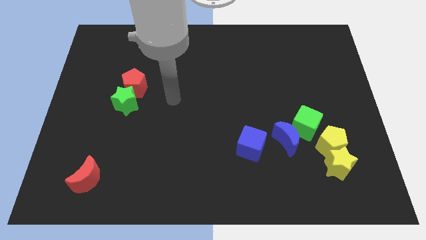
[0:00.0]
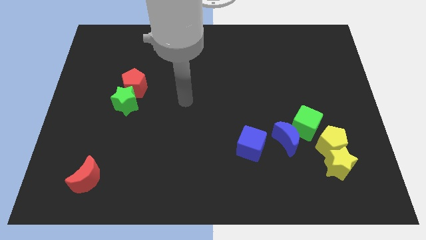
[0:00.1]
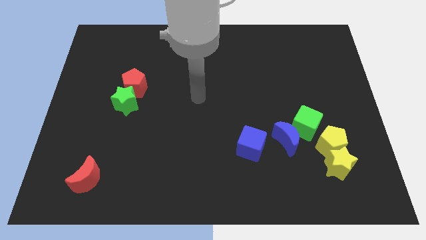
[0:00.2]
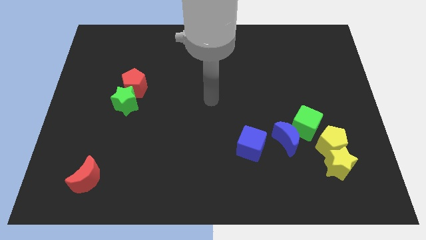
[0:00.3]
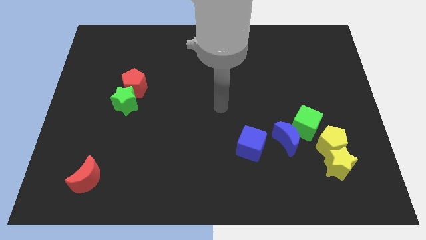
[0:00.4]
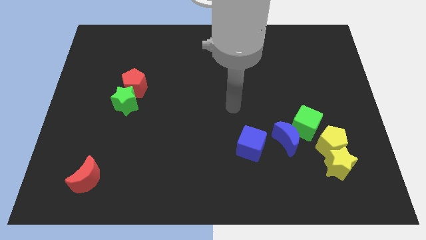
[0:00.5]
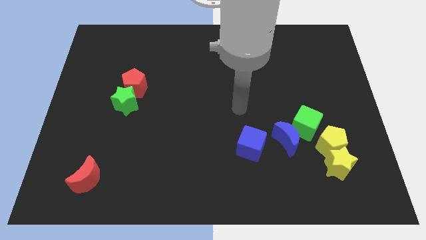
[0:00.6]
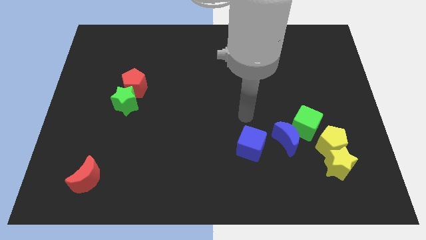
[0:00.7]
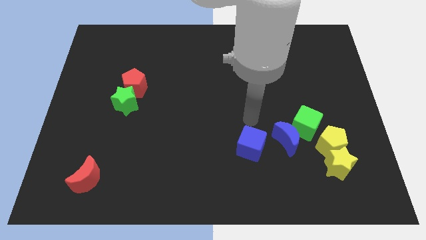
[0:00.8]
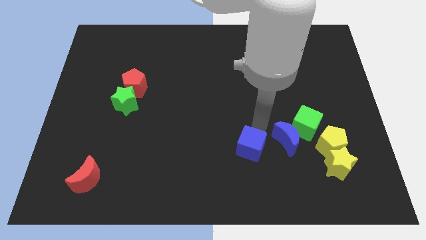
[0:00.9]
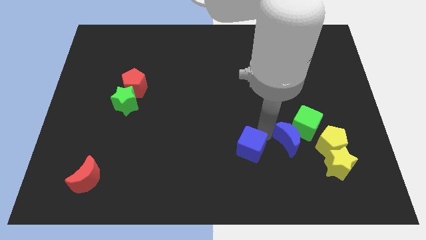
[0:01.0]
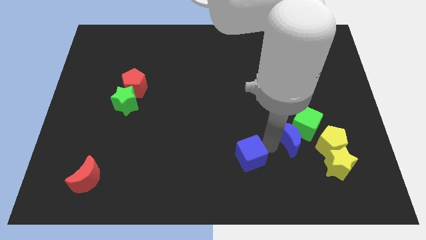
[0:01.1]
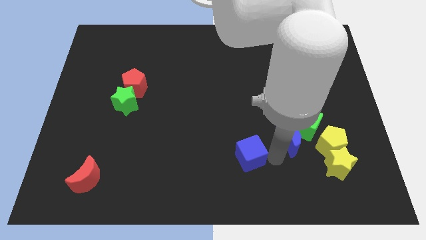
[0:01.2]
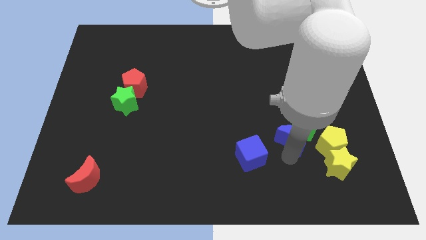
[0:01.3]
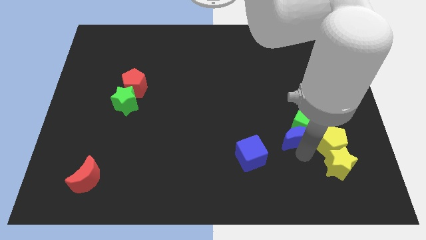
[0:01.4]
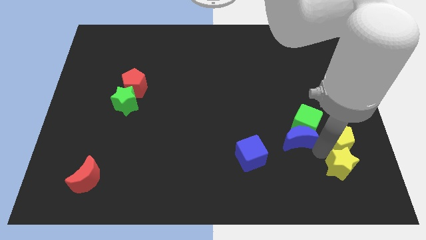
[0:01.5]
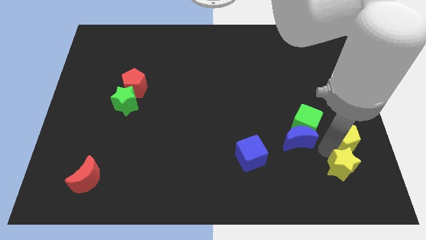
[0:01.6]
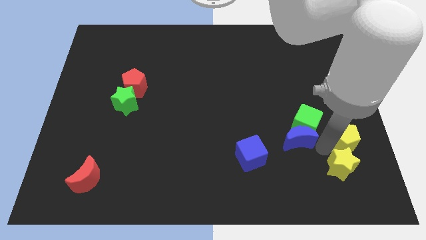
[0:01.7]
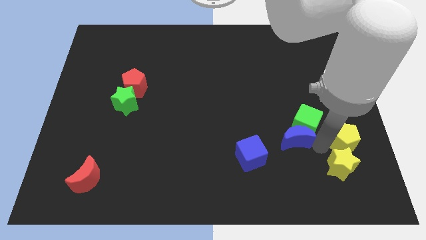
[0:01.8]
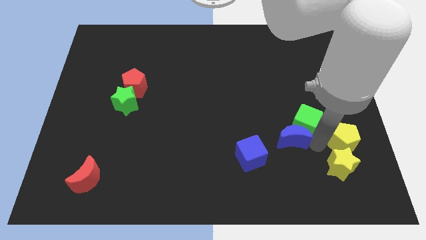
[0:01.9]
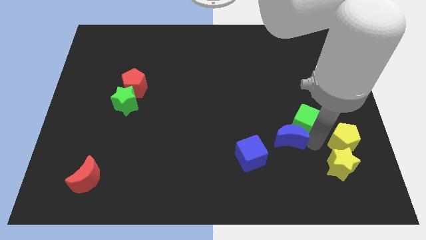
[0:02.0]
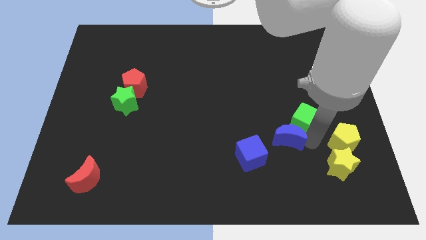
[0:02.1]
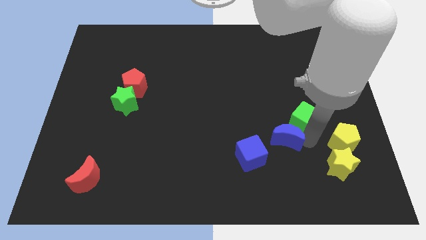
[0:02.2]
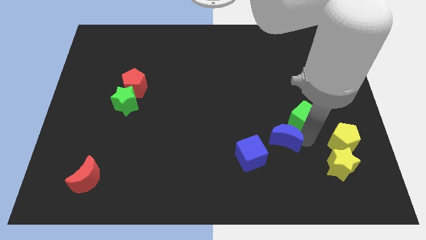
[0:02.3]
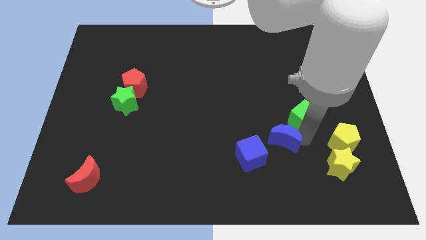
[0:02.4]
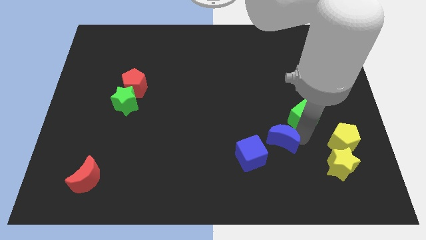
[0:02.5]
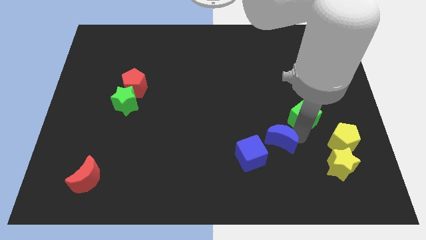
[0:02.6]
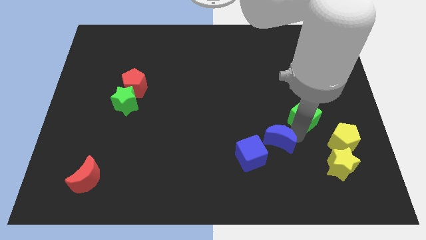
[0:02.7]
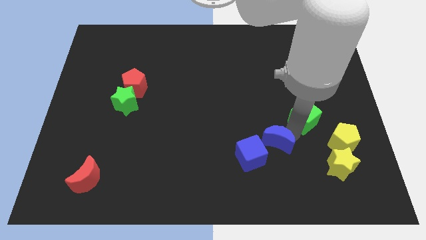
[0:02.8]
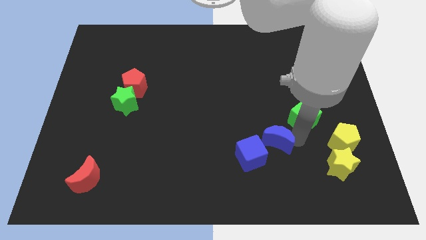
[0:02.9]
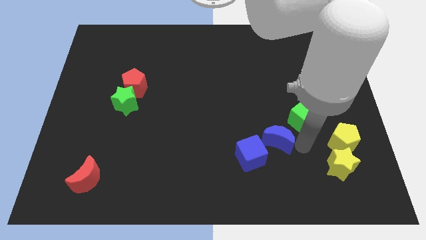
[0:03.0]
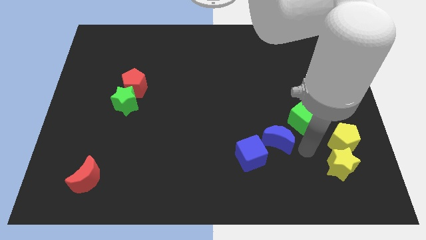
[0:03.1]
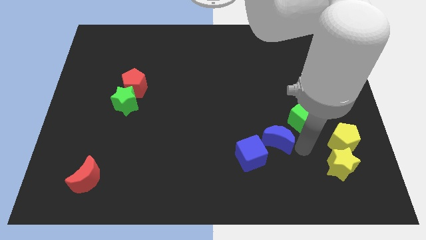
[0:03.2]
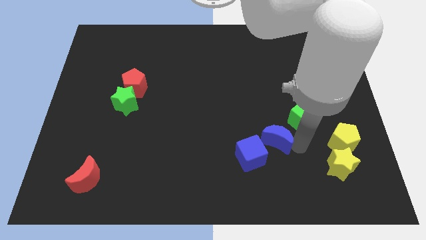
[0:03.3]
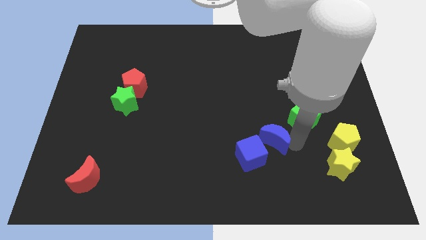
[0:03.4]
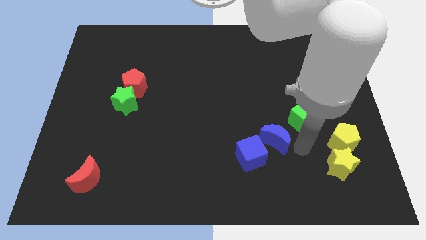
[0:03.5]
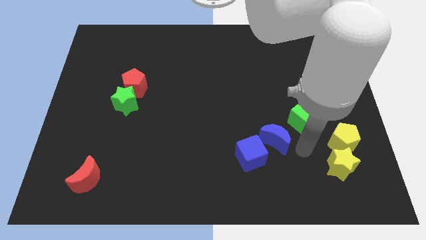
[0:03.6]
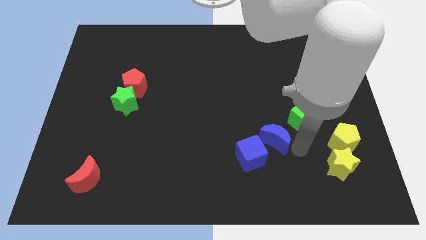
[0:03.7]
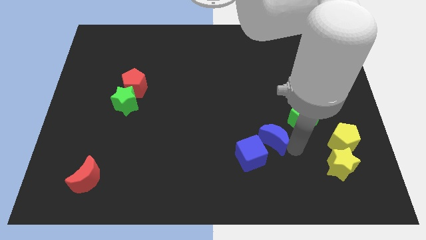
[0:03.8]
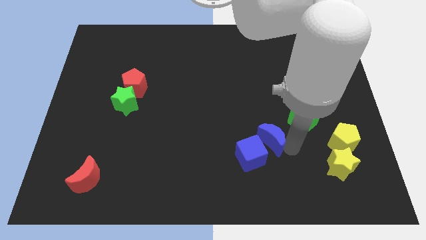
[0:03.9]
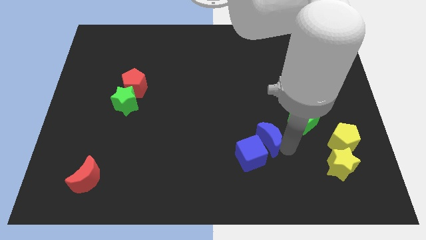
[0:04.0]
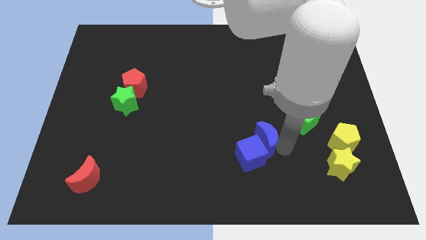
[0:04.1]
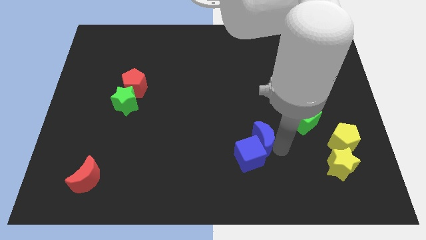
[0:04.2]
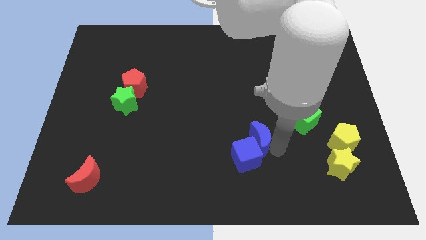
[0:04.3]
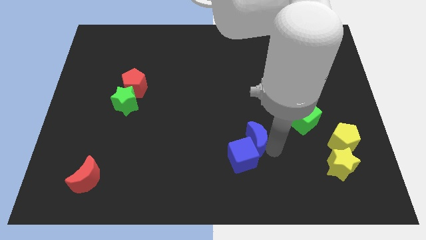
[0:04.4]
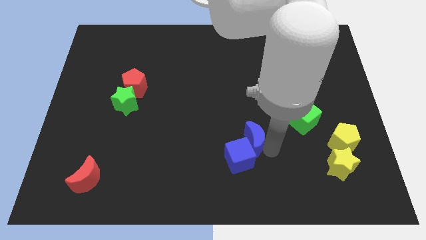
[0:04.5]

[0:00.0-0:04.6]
slide the blue moon a bit left

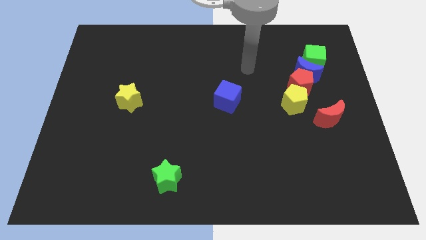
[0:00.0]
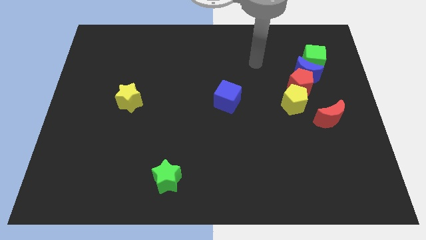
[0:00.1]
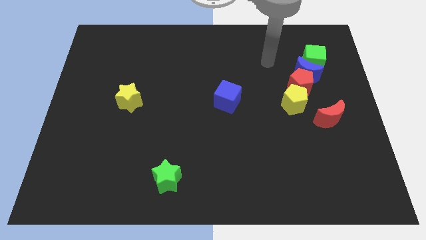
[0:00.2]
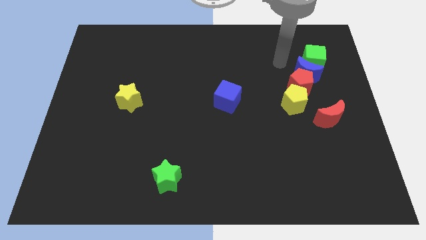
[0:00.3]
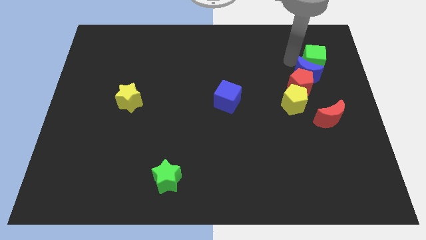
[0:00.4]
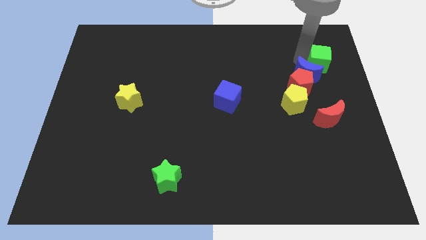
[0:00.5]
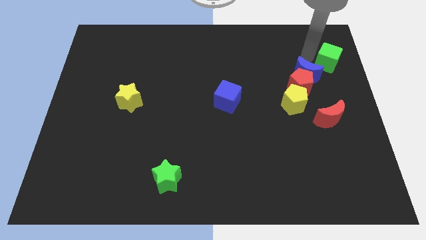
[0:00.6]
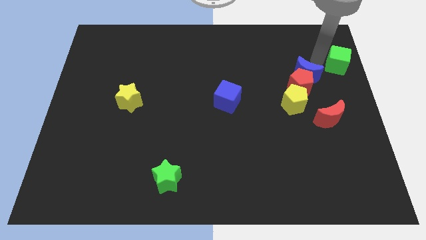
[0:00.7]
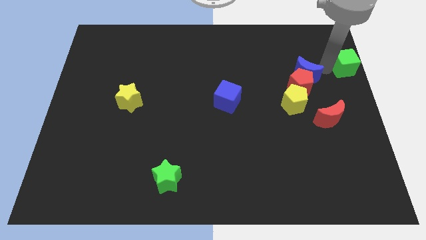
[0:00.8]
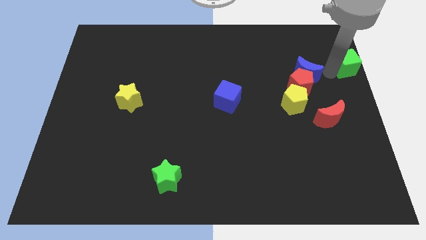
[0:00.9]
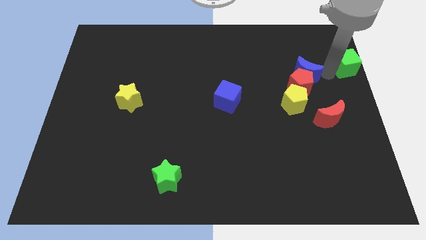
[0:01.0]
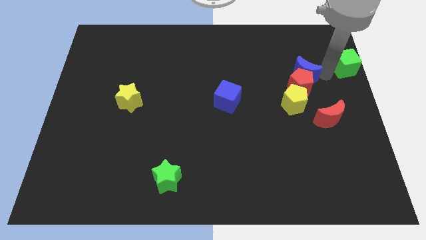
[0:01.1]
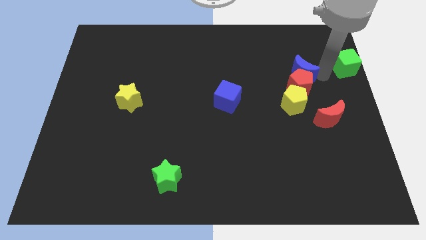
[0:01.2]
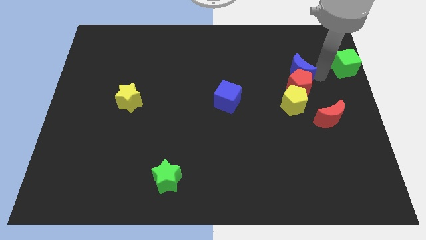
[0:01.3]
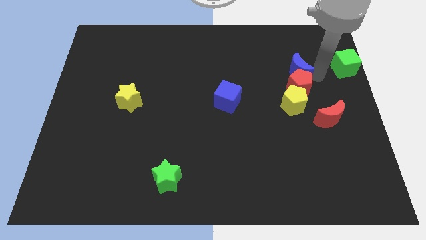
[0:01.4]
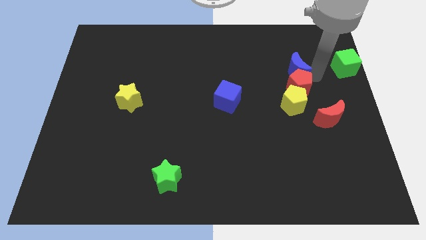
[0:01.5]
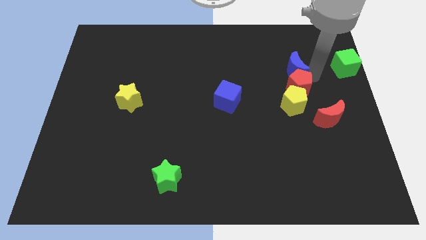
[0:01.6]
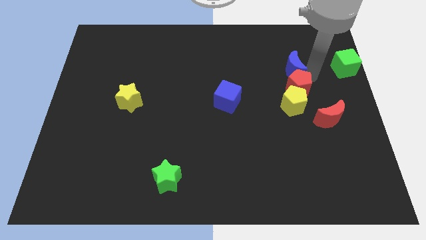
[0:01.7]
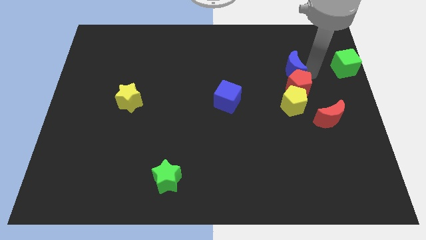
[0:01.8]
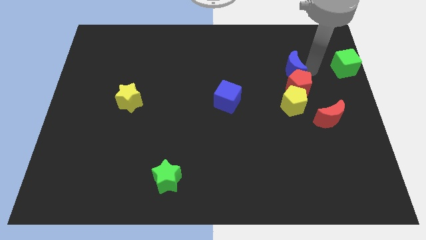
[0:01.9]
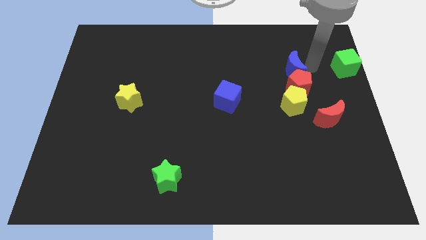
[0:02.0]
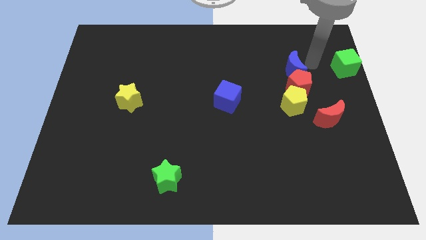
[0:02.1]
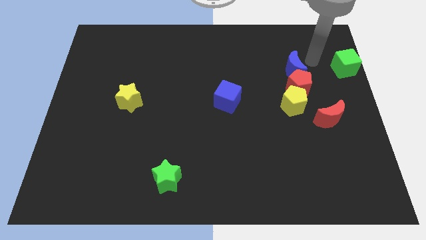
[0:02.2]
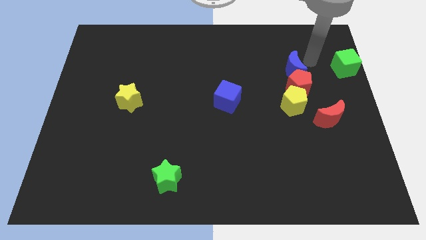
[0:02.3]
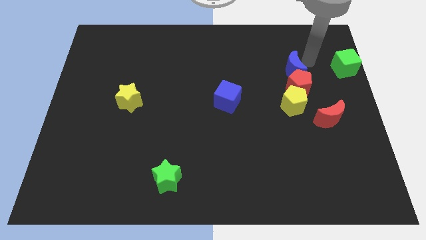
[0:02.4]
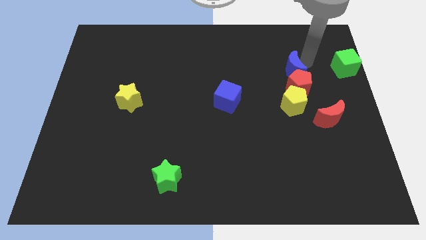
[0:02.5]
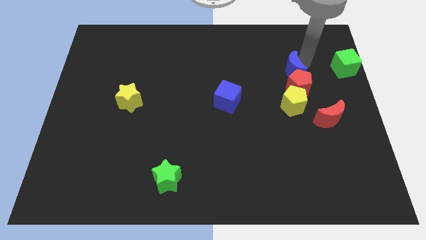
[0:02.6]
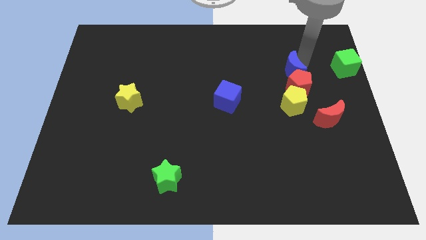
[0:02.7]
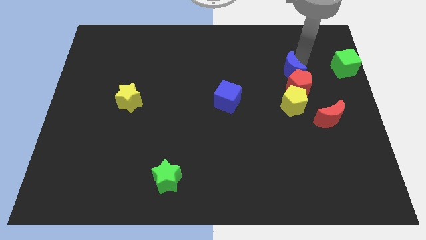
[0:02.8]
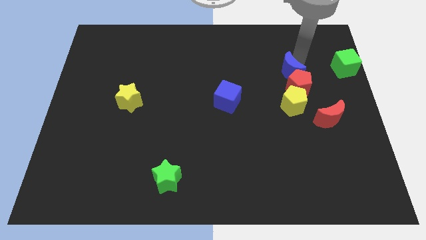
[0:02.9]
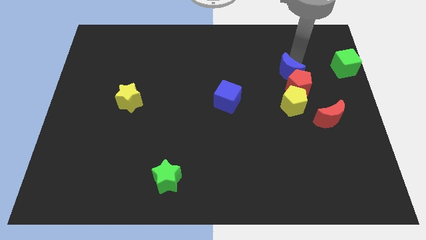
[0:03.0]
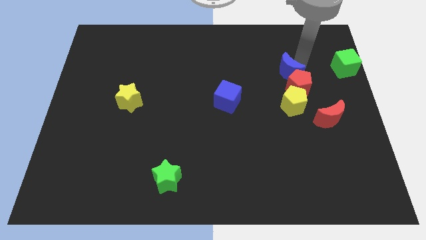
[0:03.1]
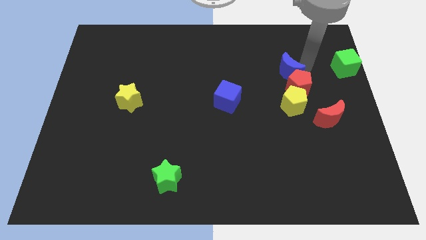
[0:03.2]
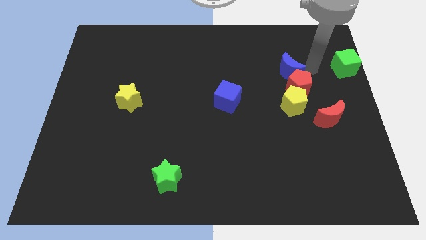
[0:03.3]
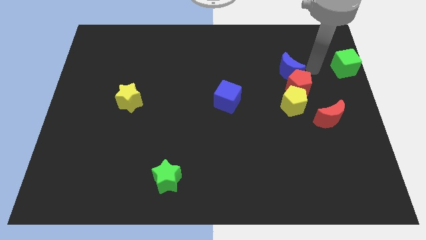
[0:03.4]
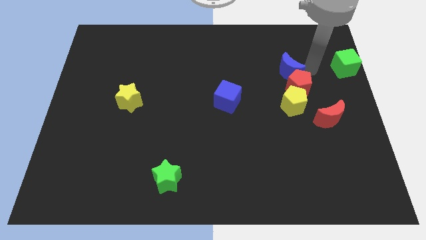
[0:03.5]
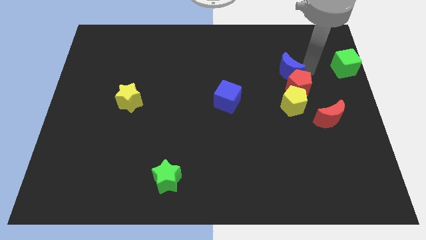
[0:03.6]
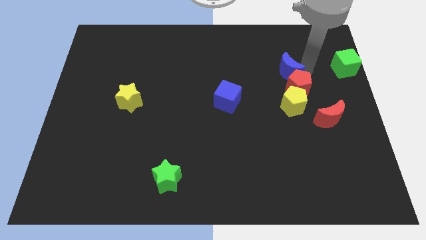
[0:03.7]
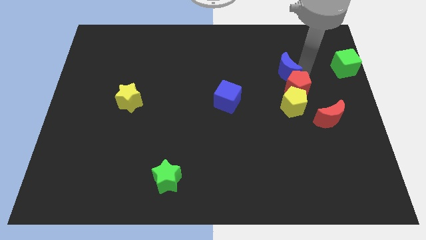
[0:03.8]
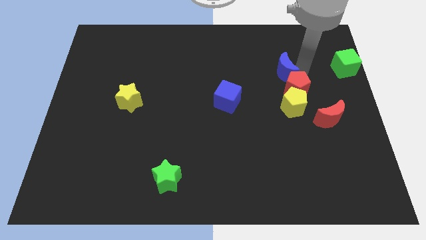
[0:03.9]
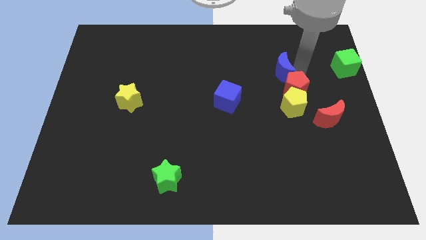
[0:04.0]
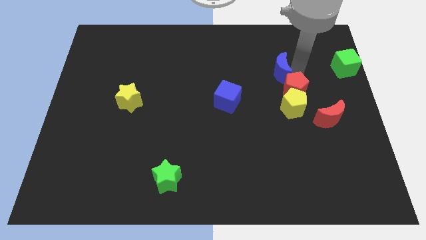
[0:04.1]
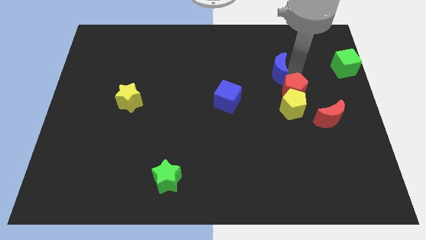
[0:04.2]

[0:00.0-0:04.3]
slightly move the blue moon to the left
